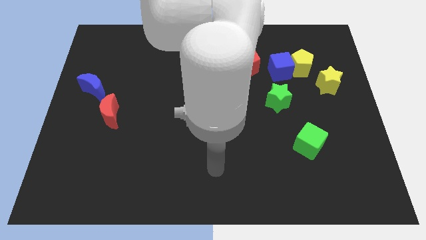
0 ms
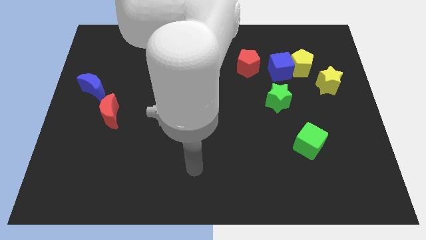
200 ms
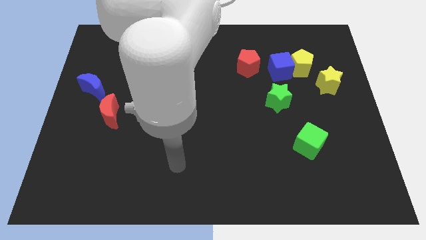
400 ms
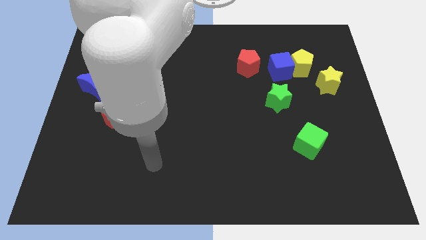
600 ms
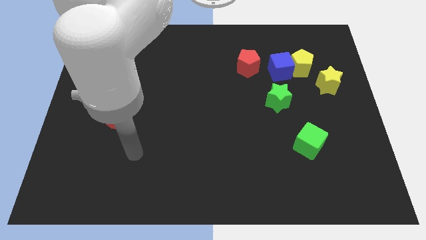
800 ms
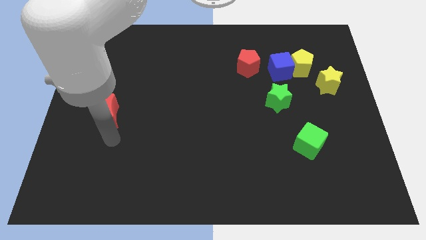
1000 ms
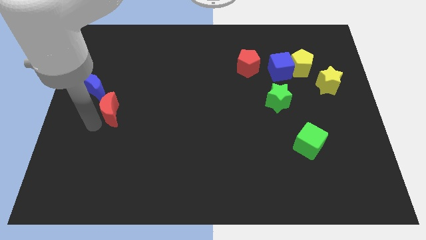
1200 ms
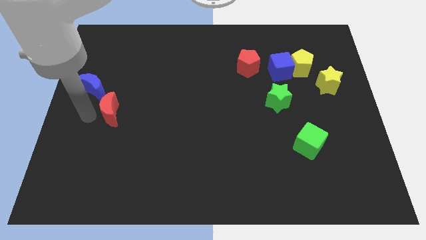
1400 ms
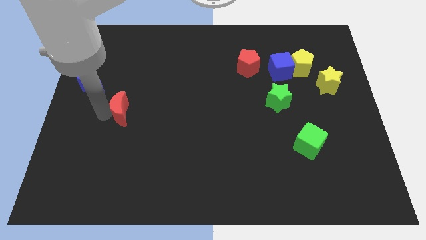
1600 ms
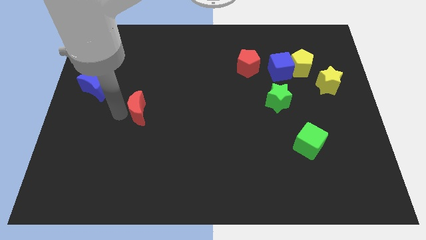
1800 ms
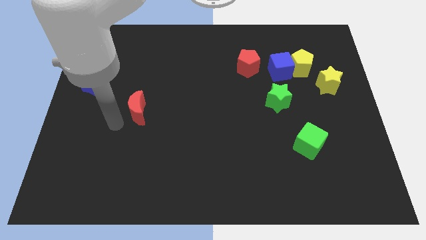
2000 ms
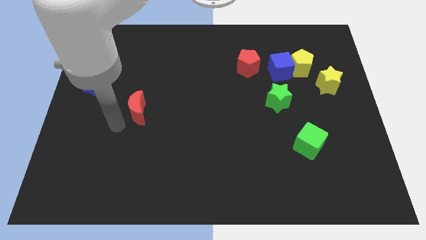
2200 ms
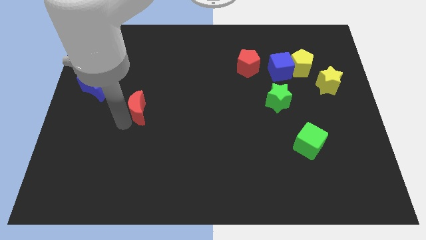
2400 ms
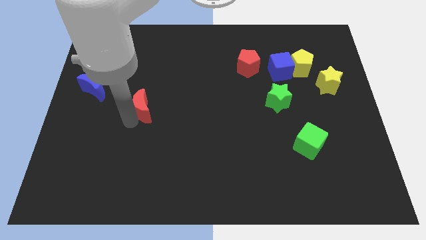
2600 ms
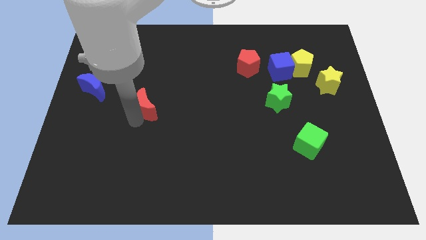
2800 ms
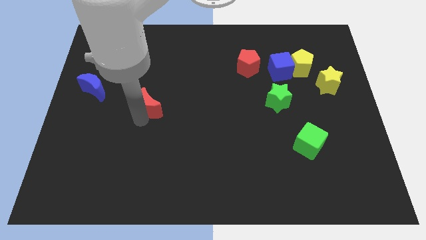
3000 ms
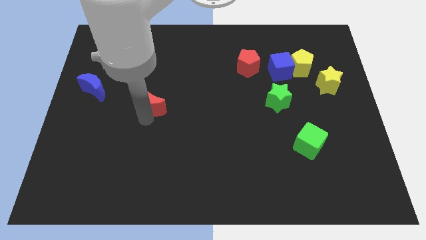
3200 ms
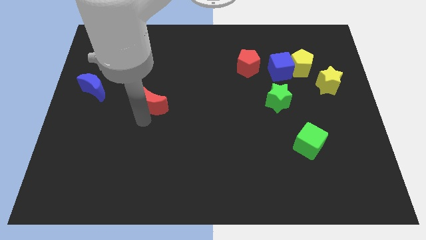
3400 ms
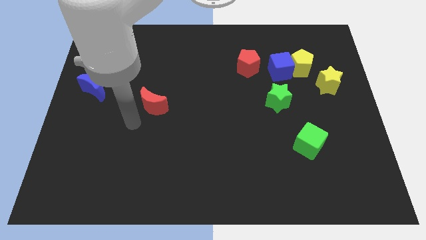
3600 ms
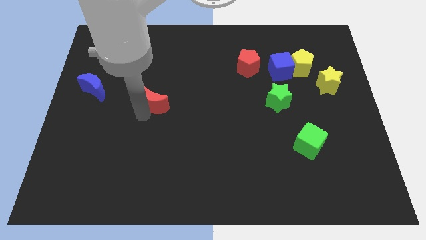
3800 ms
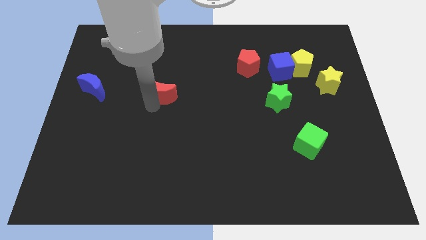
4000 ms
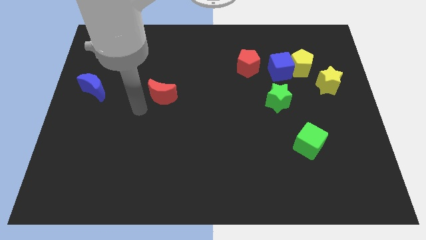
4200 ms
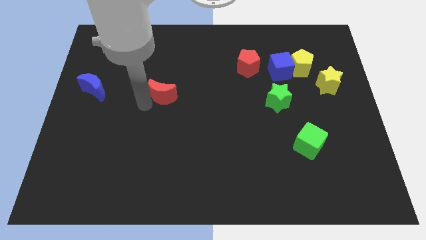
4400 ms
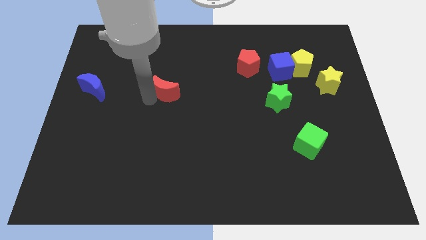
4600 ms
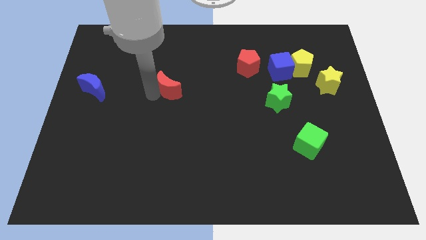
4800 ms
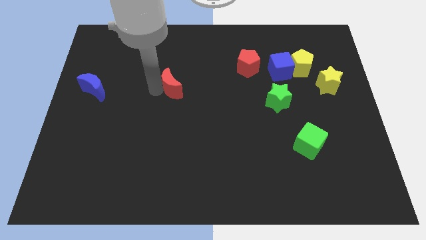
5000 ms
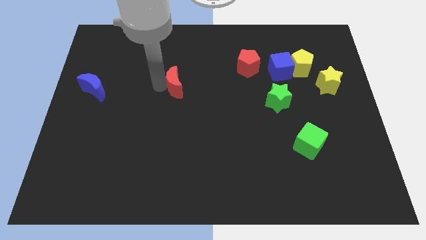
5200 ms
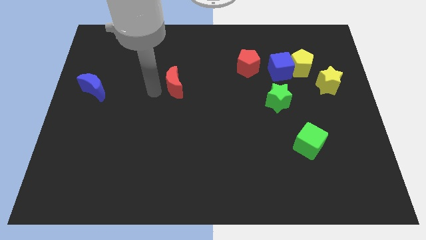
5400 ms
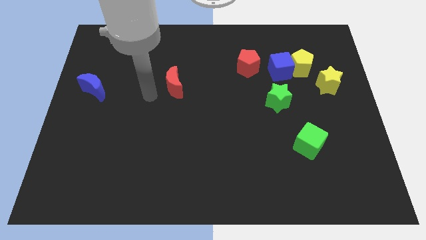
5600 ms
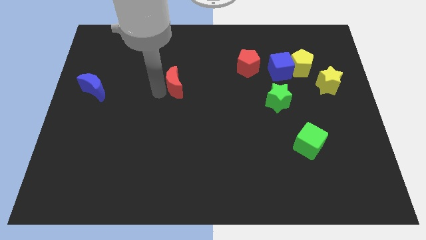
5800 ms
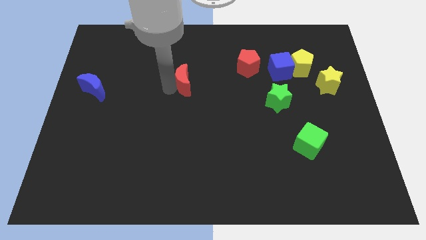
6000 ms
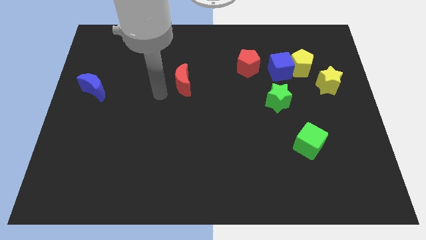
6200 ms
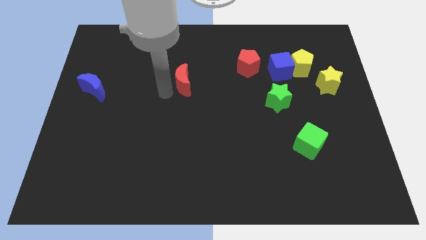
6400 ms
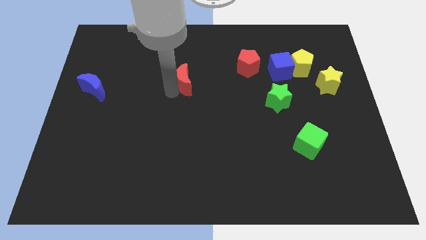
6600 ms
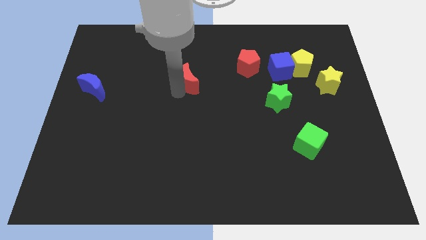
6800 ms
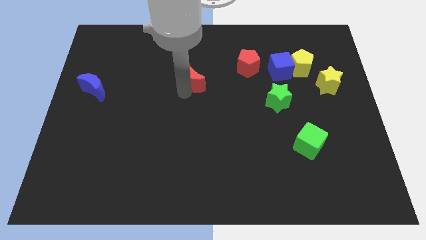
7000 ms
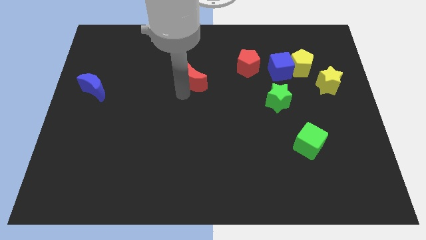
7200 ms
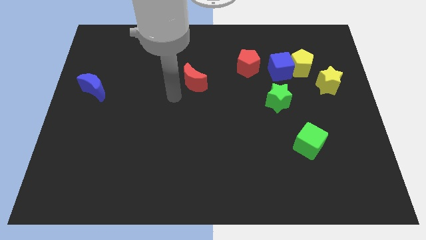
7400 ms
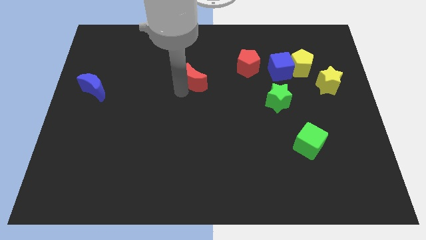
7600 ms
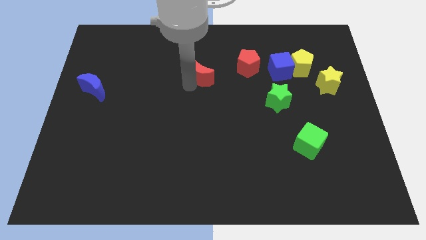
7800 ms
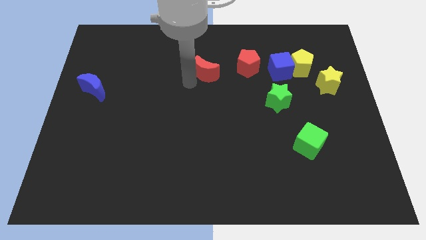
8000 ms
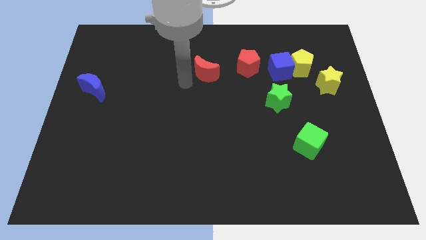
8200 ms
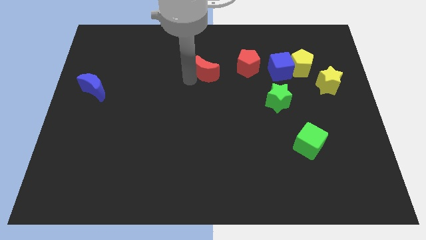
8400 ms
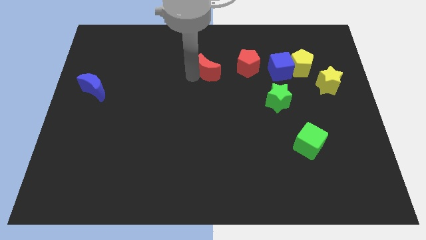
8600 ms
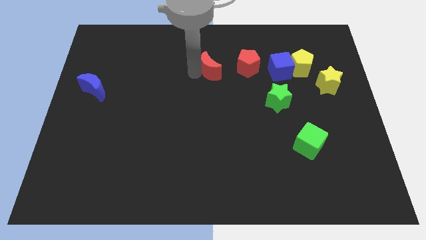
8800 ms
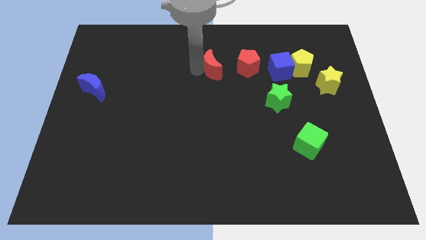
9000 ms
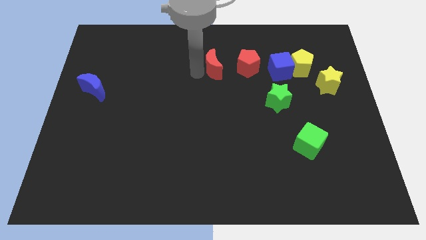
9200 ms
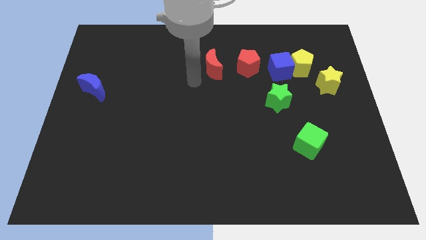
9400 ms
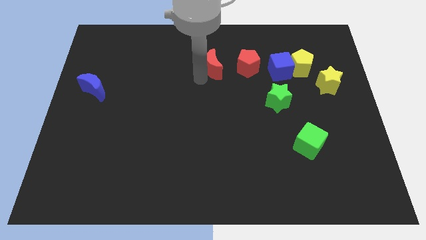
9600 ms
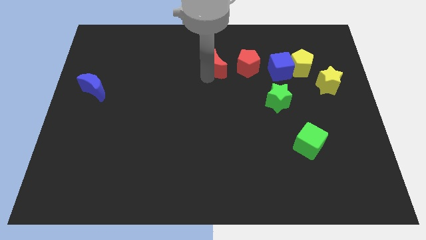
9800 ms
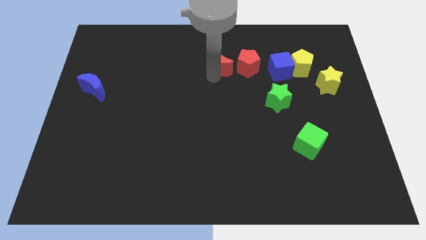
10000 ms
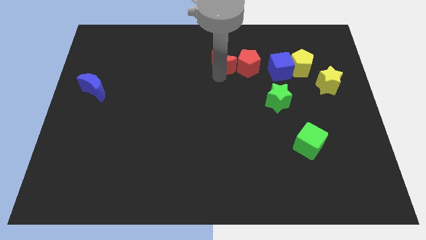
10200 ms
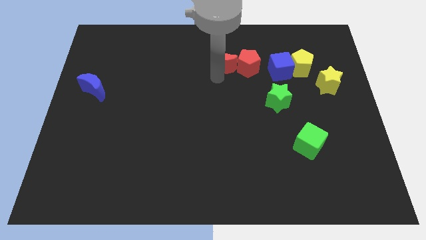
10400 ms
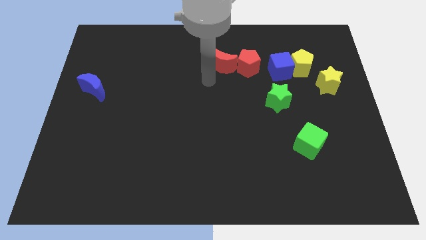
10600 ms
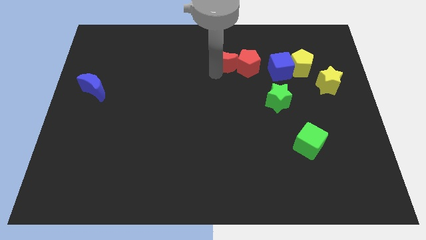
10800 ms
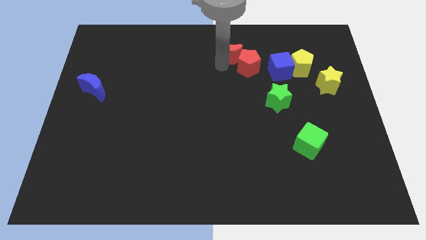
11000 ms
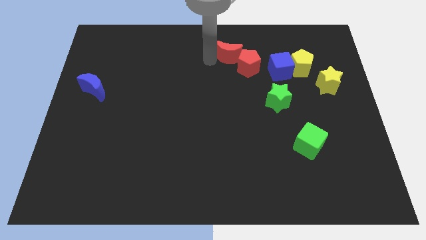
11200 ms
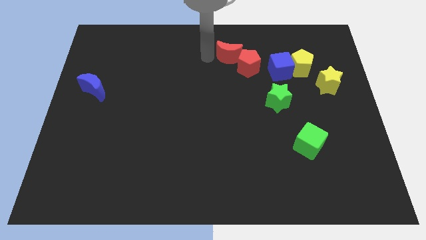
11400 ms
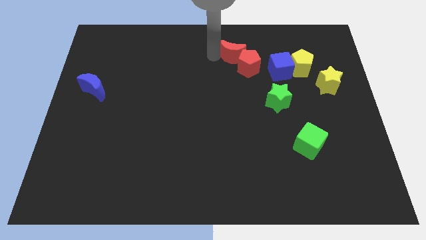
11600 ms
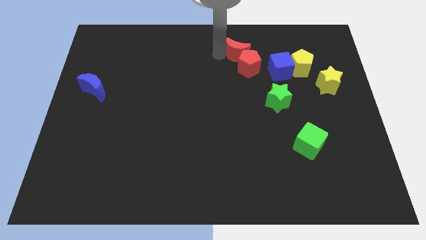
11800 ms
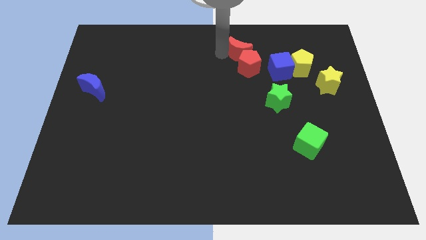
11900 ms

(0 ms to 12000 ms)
move the red moon to the top left side of the blue cube

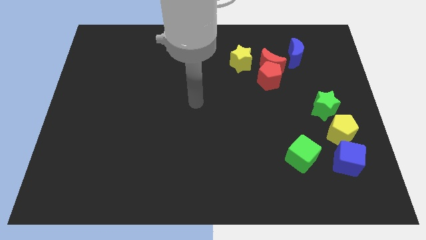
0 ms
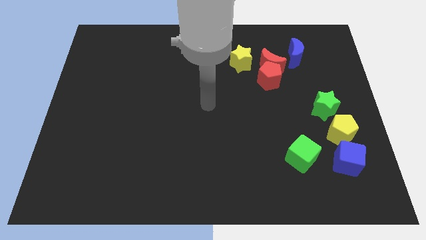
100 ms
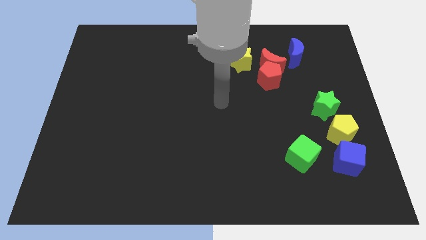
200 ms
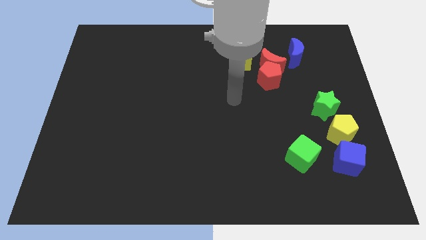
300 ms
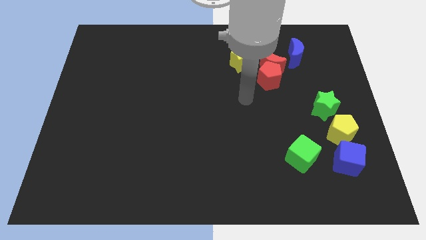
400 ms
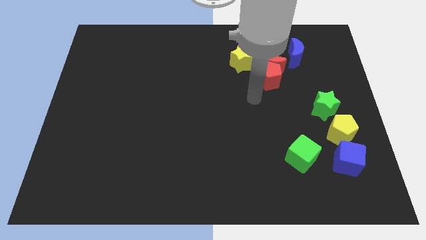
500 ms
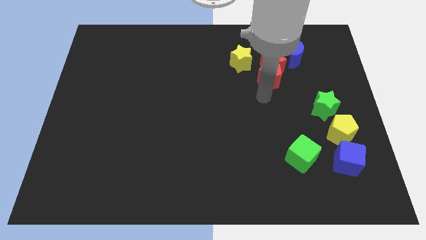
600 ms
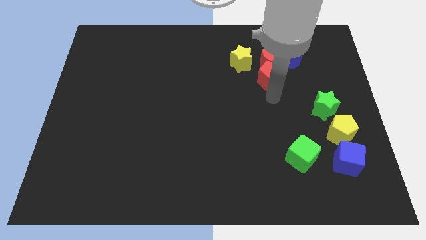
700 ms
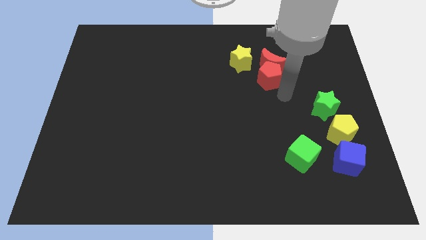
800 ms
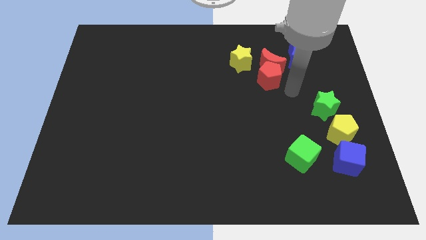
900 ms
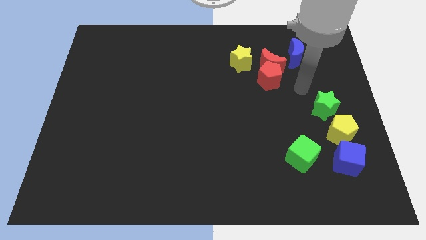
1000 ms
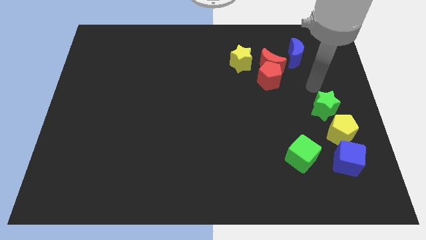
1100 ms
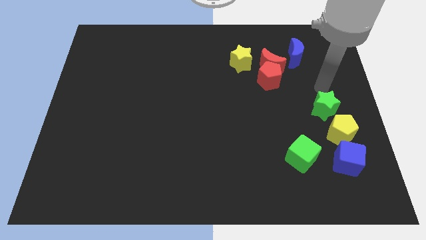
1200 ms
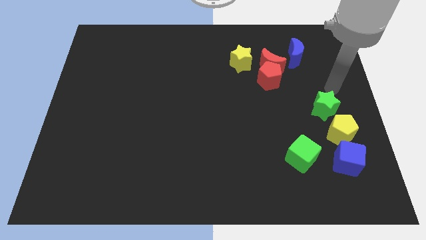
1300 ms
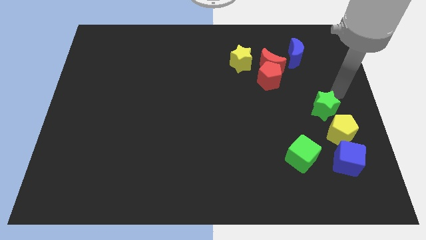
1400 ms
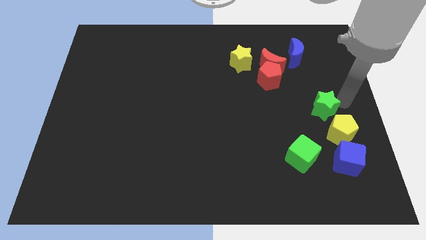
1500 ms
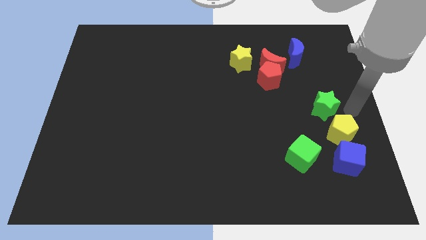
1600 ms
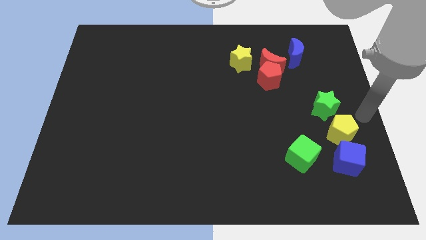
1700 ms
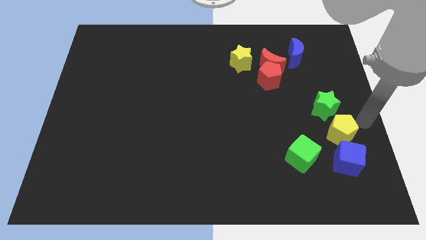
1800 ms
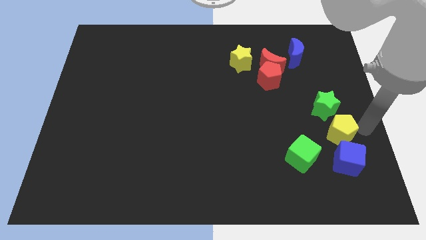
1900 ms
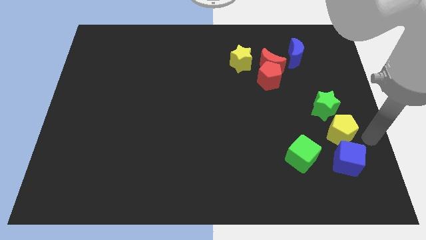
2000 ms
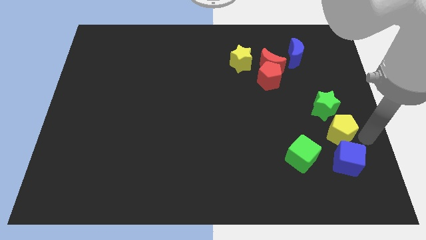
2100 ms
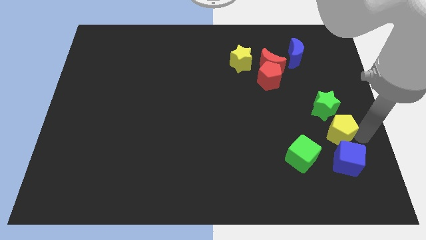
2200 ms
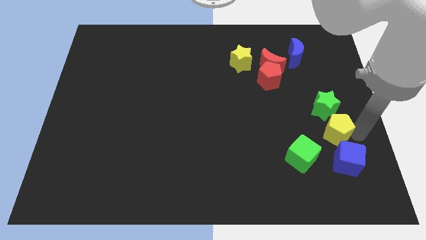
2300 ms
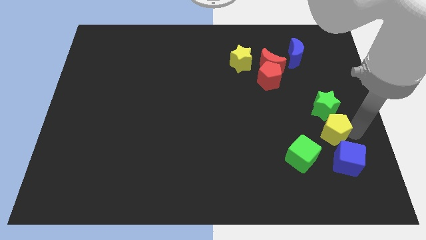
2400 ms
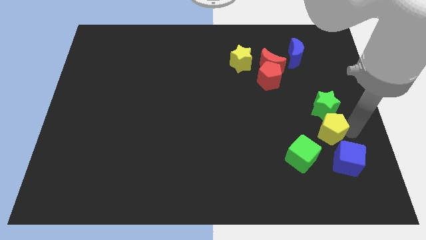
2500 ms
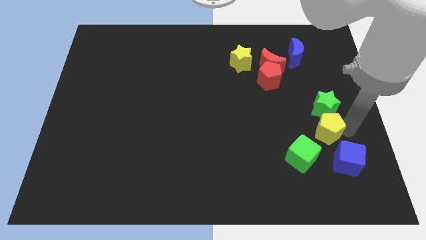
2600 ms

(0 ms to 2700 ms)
put the yellow pentagon diagonally down and to the left of the green star

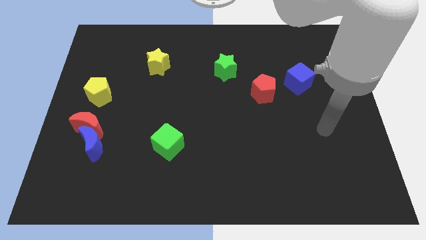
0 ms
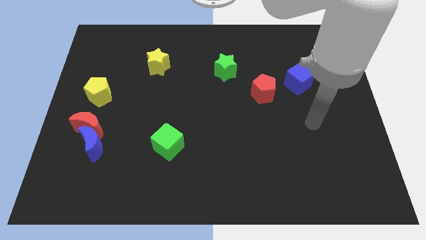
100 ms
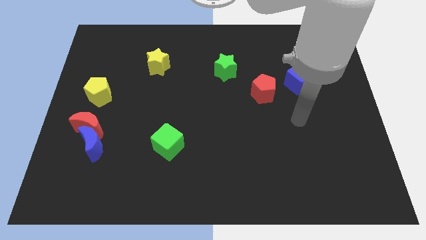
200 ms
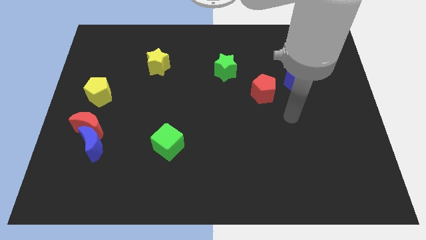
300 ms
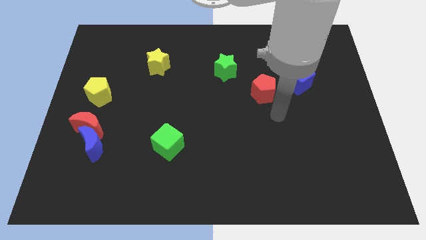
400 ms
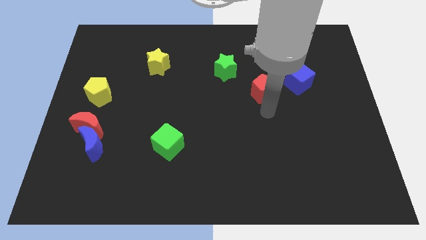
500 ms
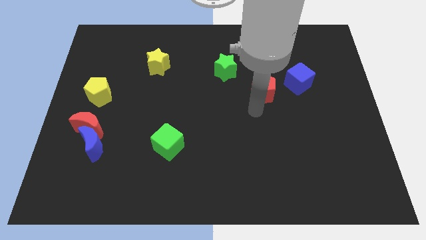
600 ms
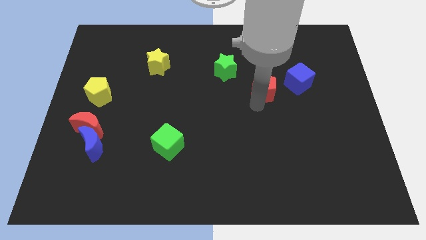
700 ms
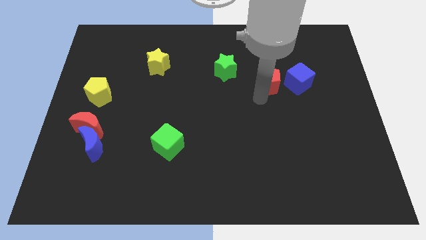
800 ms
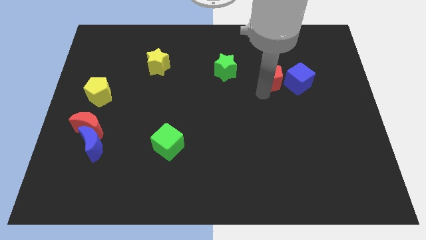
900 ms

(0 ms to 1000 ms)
slide the red pentagon diagonally up and to the left of the blue cube
